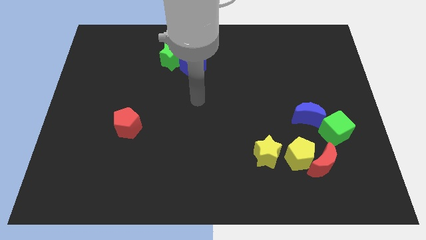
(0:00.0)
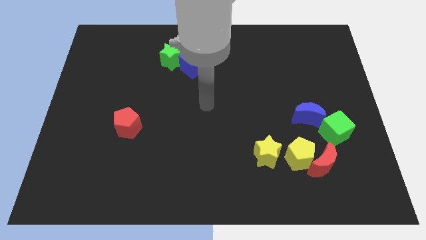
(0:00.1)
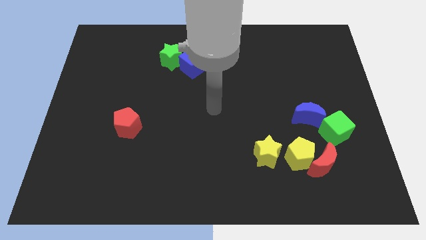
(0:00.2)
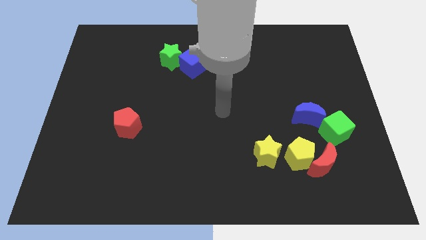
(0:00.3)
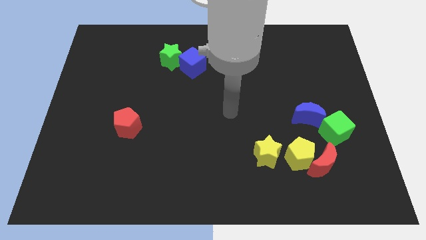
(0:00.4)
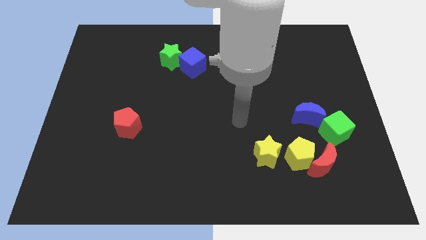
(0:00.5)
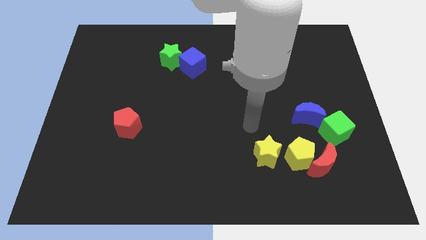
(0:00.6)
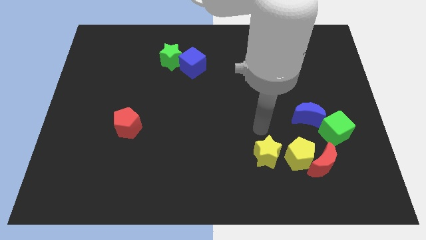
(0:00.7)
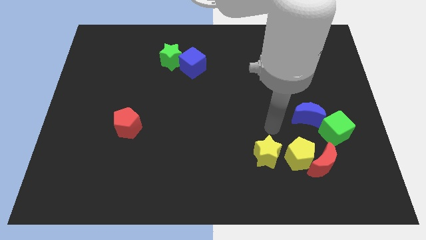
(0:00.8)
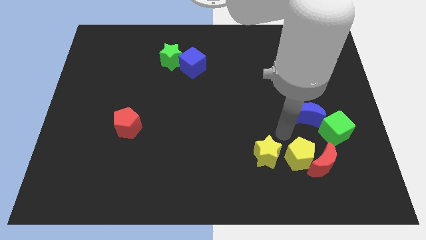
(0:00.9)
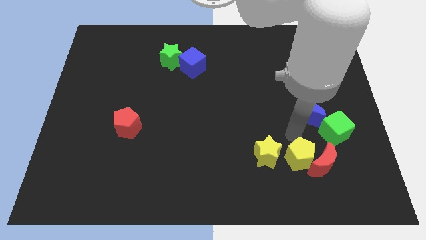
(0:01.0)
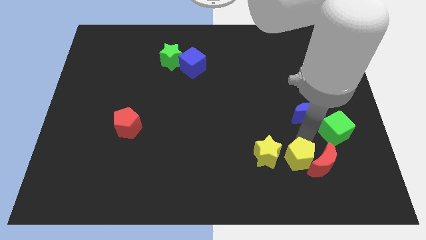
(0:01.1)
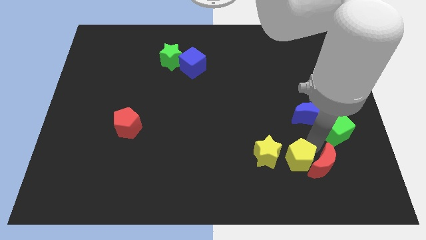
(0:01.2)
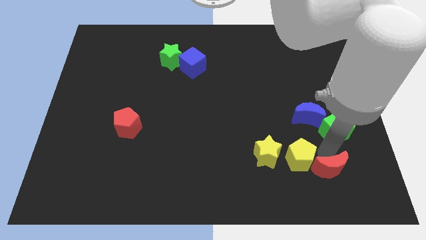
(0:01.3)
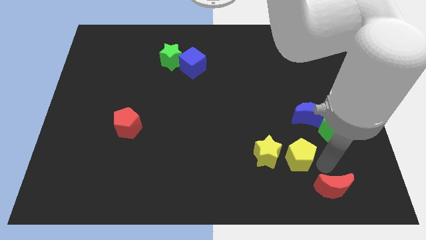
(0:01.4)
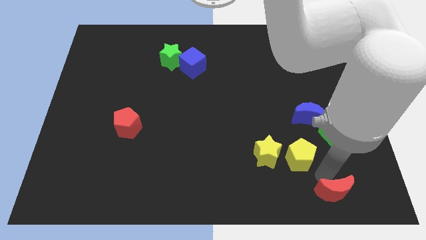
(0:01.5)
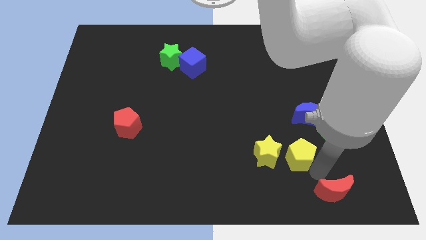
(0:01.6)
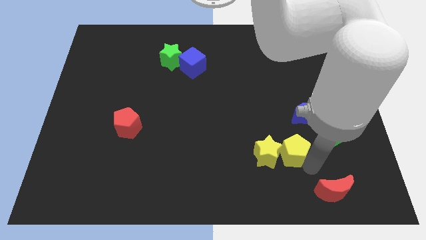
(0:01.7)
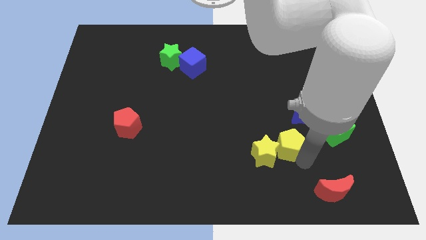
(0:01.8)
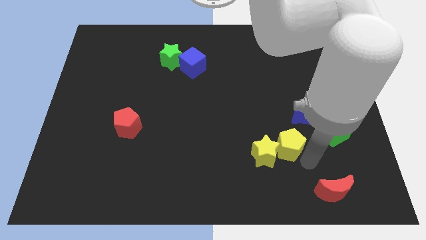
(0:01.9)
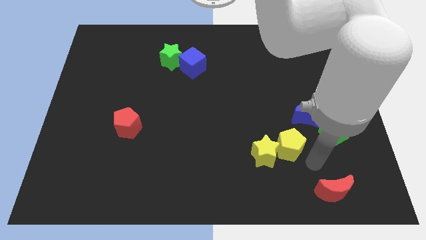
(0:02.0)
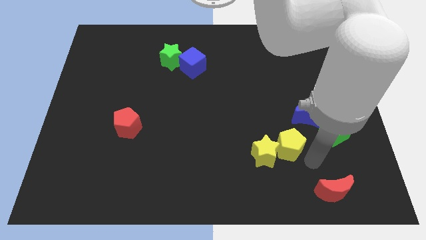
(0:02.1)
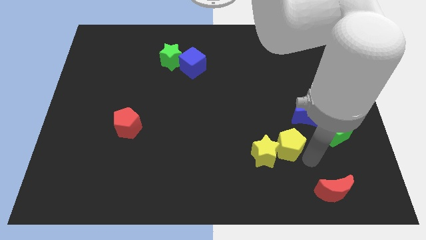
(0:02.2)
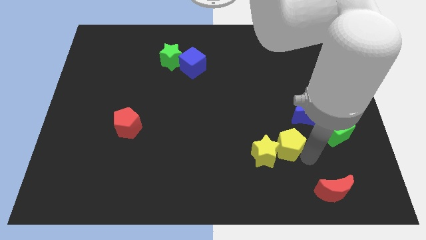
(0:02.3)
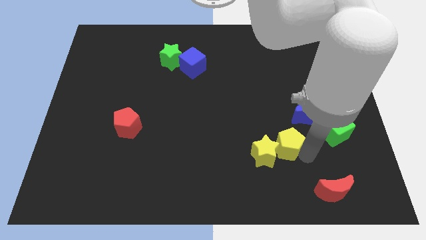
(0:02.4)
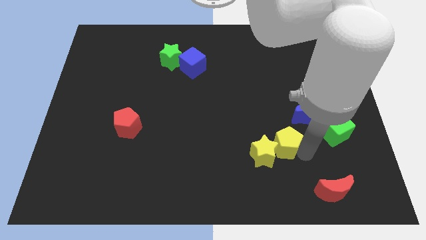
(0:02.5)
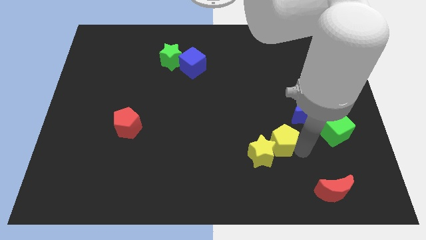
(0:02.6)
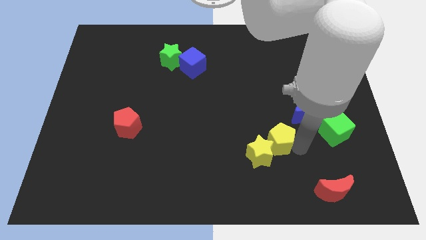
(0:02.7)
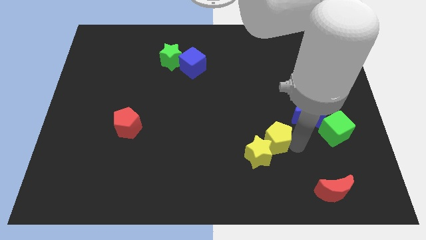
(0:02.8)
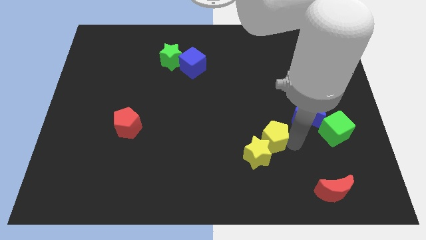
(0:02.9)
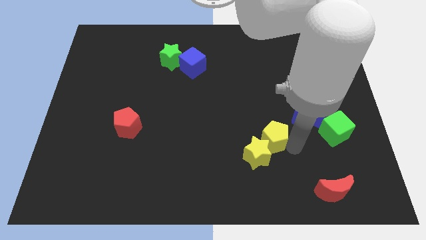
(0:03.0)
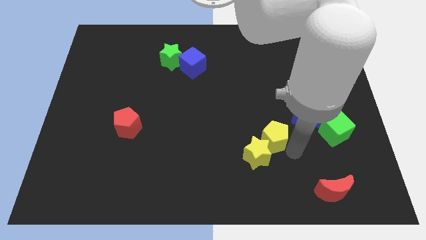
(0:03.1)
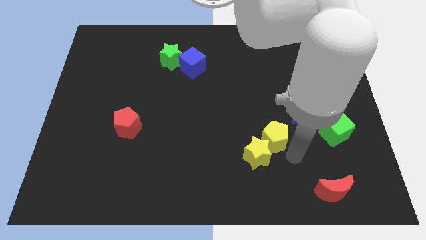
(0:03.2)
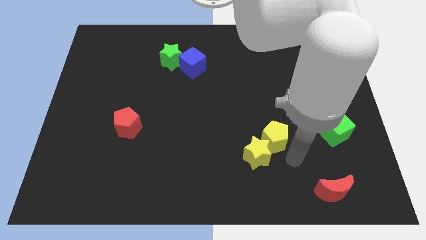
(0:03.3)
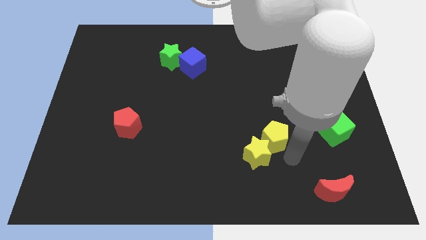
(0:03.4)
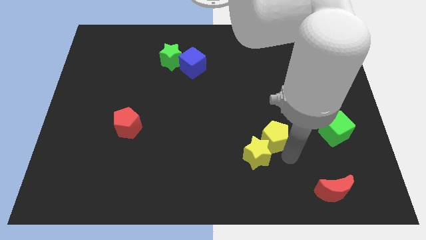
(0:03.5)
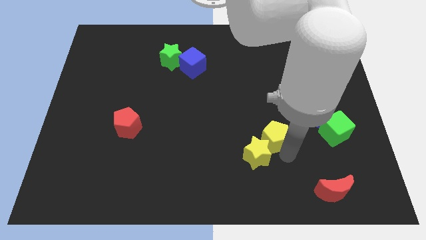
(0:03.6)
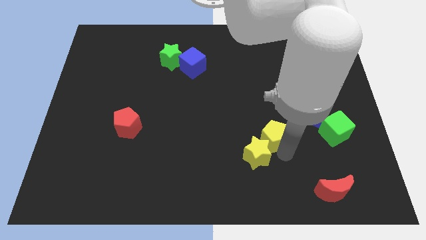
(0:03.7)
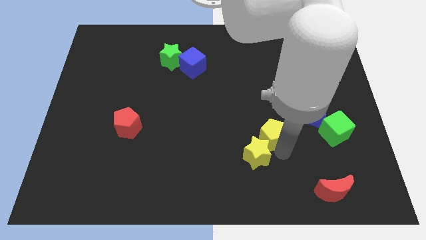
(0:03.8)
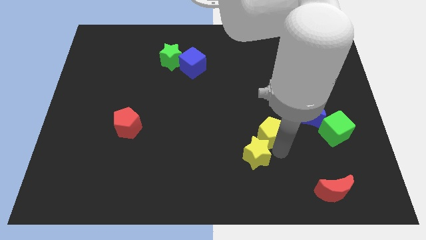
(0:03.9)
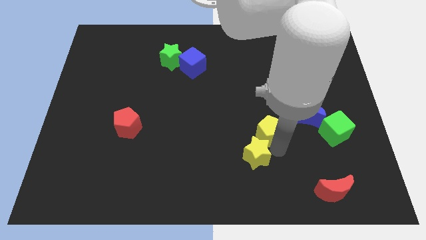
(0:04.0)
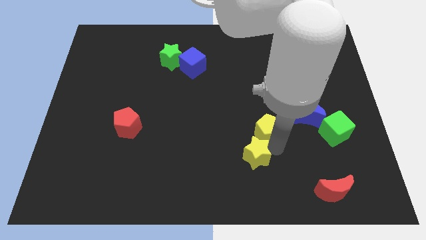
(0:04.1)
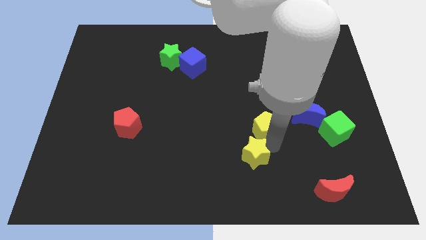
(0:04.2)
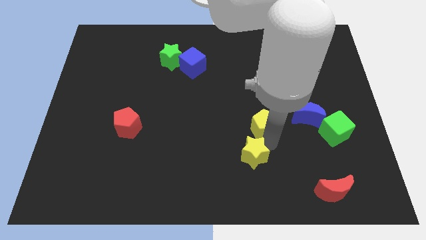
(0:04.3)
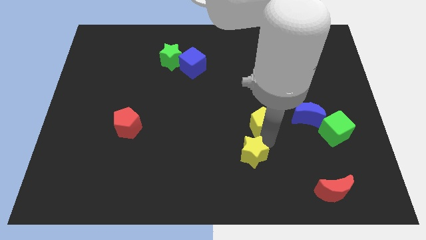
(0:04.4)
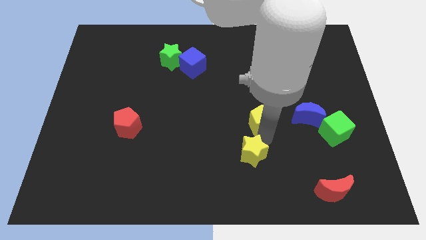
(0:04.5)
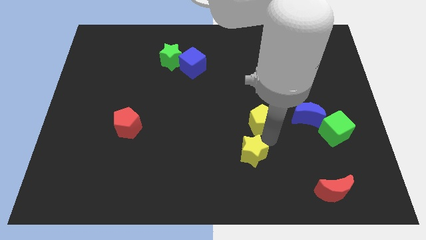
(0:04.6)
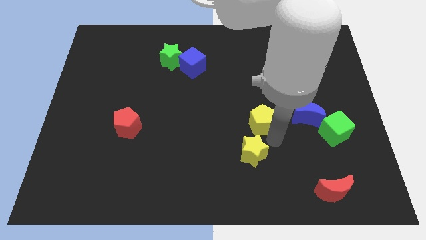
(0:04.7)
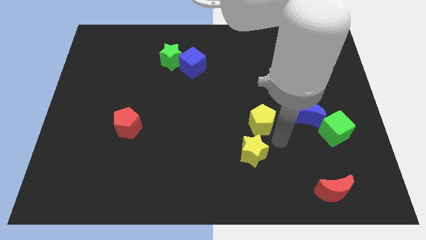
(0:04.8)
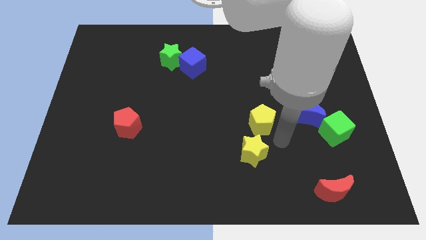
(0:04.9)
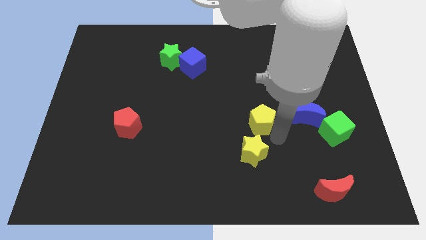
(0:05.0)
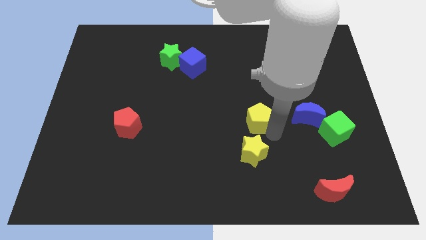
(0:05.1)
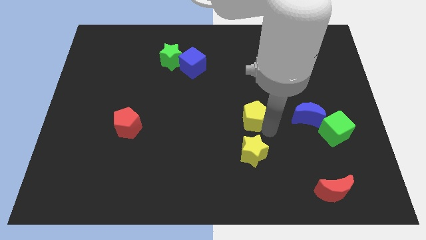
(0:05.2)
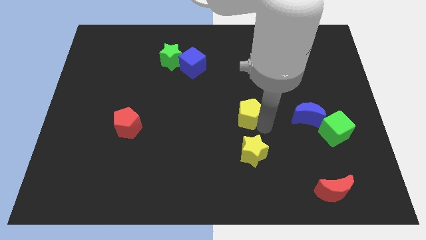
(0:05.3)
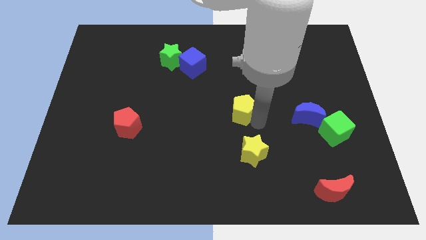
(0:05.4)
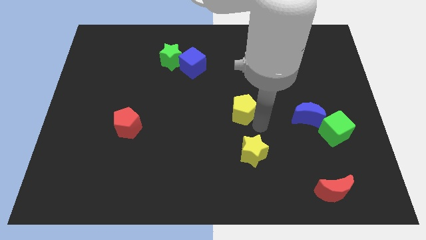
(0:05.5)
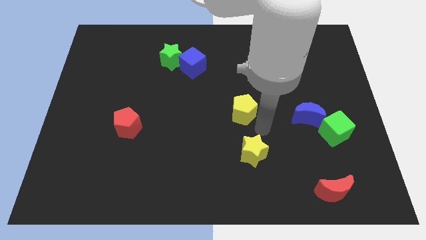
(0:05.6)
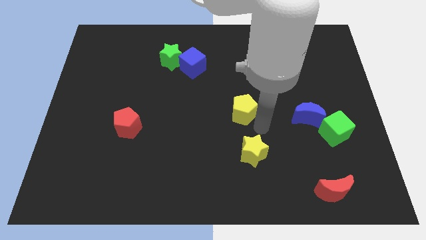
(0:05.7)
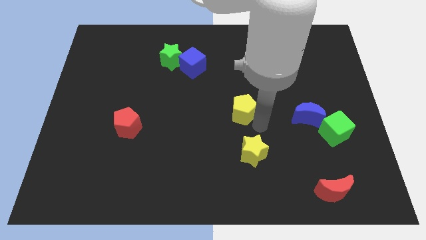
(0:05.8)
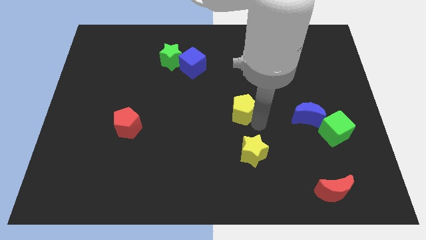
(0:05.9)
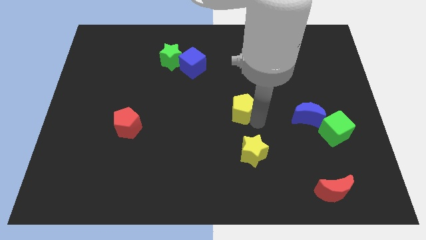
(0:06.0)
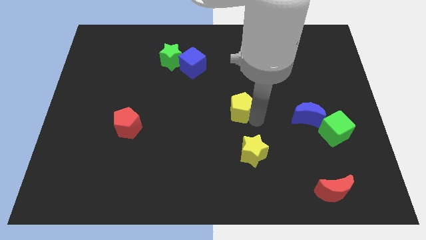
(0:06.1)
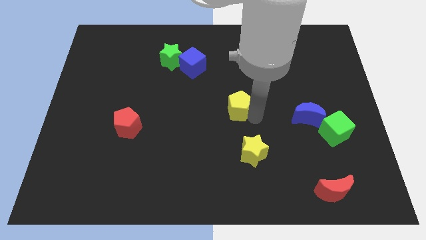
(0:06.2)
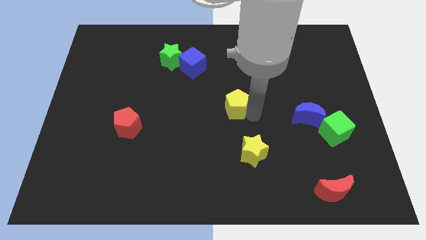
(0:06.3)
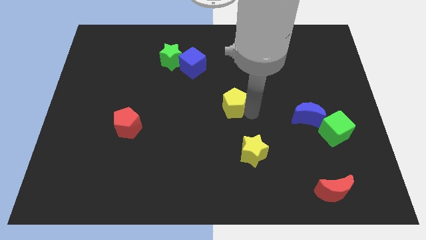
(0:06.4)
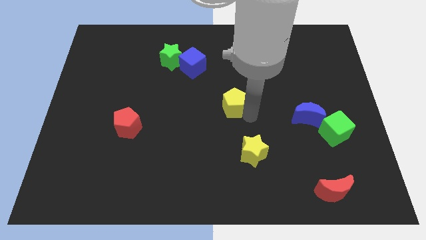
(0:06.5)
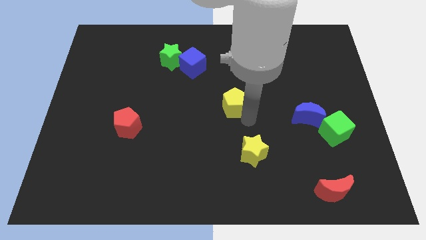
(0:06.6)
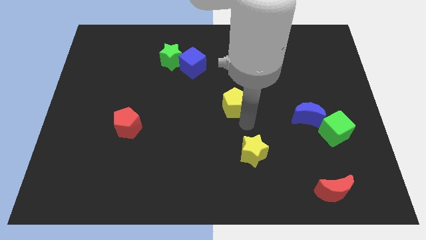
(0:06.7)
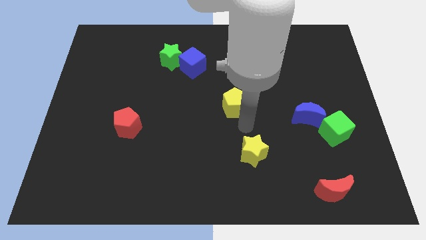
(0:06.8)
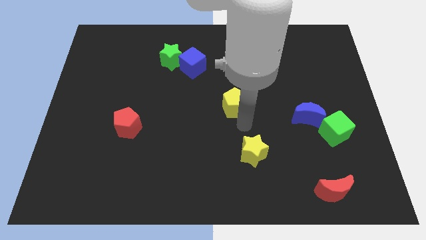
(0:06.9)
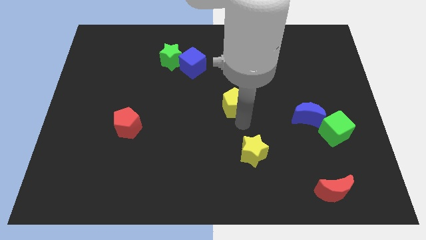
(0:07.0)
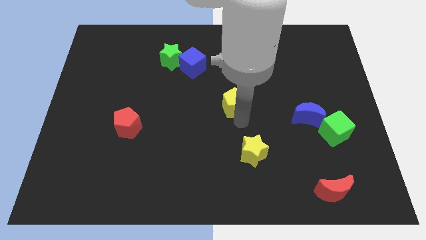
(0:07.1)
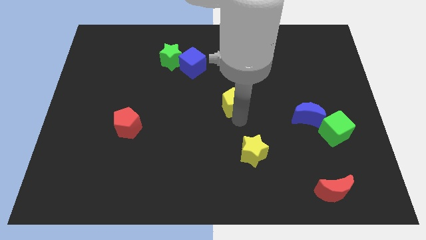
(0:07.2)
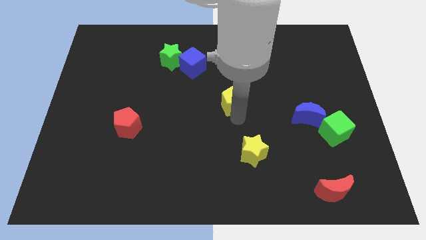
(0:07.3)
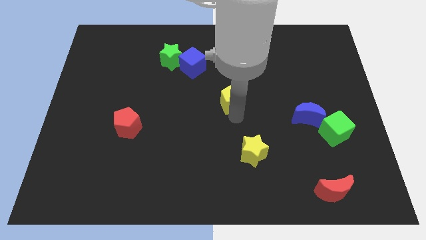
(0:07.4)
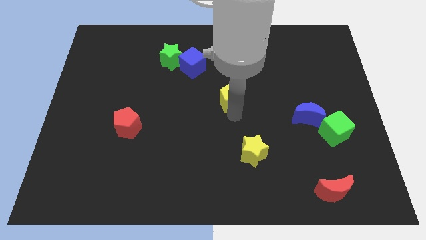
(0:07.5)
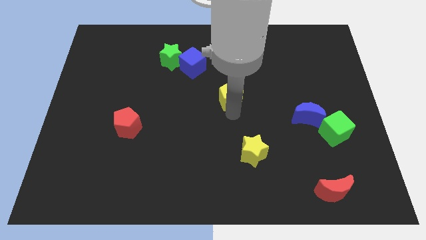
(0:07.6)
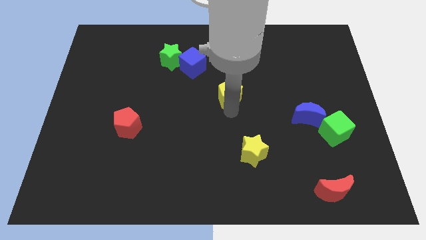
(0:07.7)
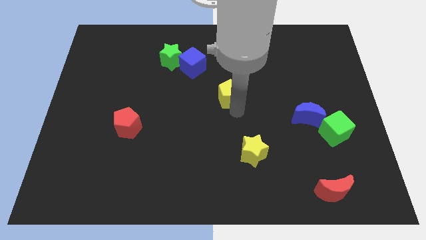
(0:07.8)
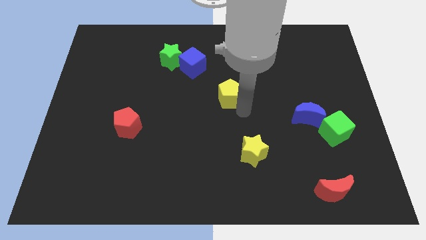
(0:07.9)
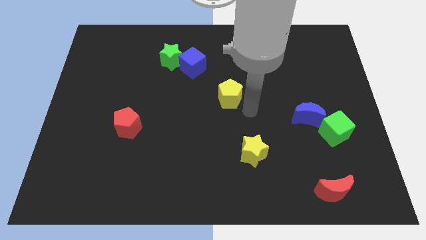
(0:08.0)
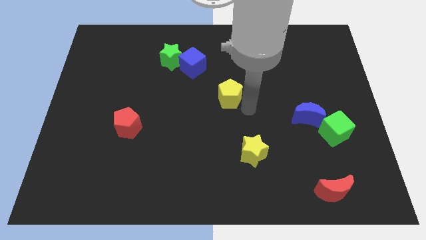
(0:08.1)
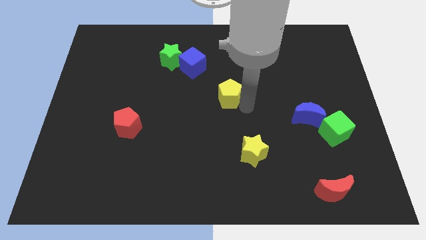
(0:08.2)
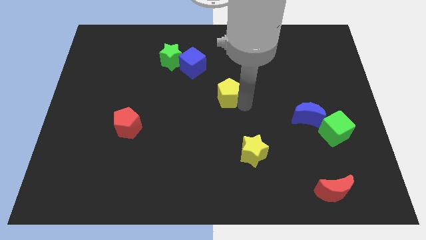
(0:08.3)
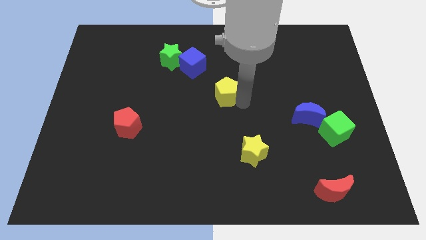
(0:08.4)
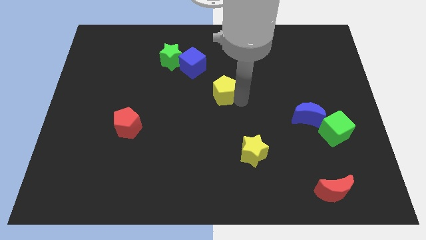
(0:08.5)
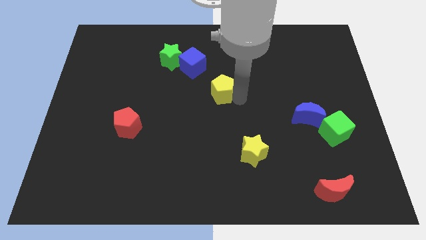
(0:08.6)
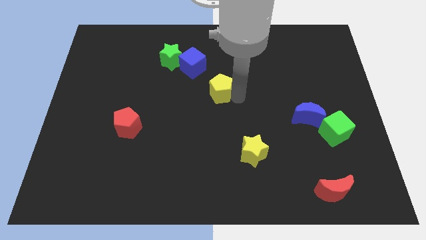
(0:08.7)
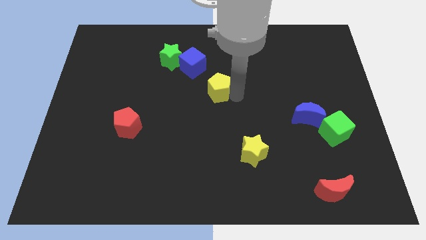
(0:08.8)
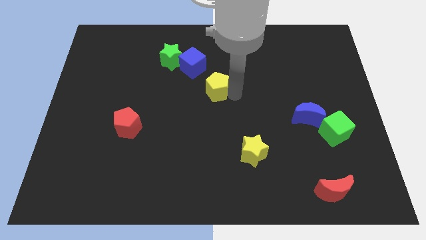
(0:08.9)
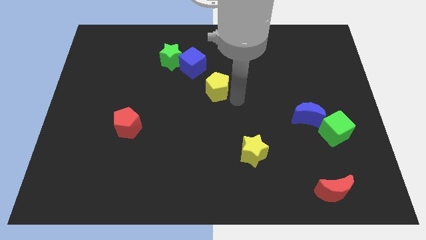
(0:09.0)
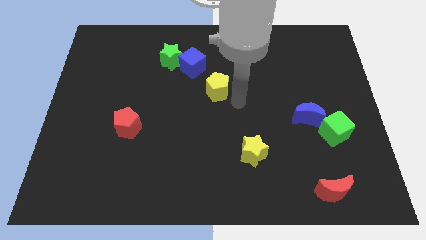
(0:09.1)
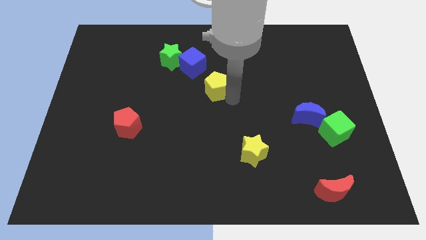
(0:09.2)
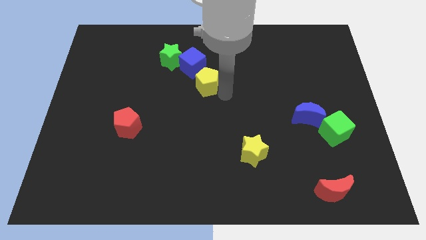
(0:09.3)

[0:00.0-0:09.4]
push the yellow pentagon diagonally down and to the right of the green star
